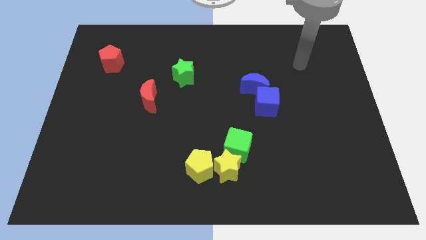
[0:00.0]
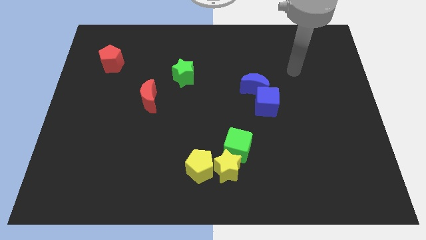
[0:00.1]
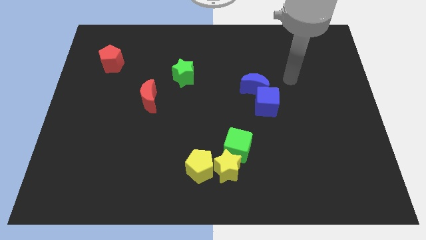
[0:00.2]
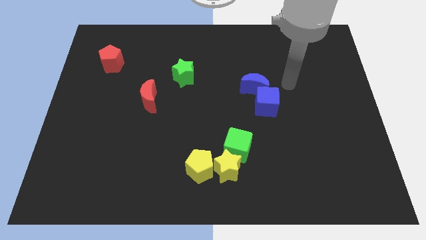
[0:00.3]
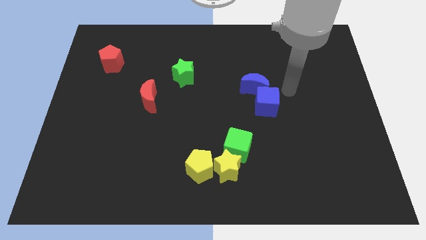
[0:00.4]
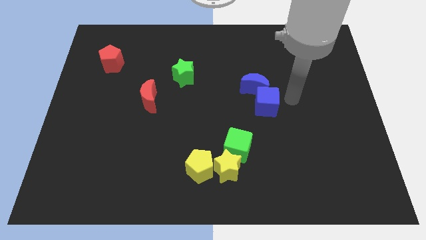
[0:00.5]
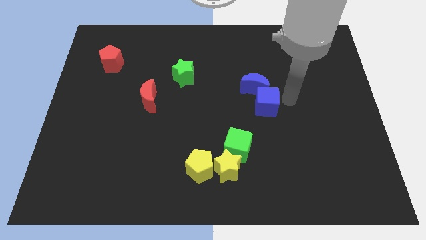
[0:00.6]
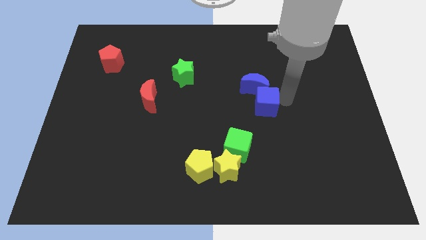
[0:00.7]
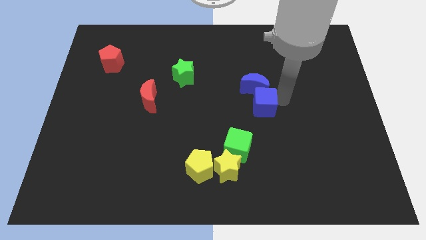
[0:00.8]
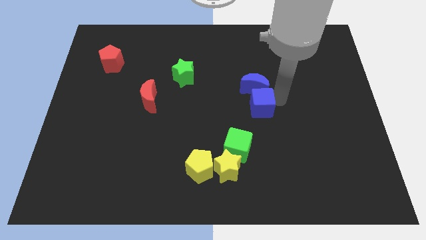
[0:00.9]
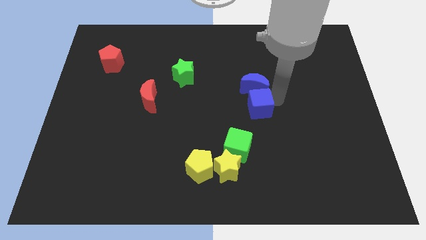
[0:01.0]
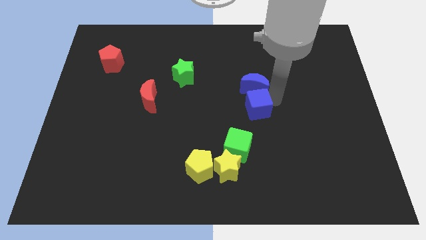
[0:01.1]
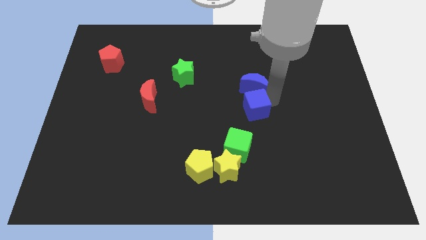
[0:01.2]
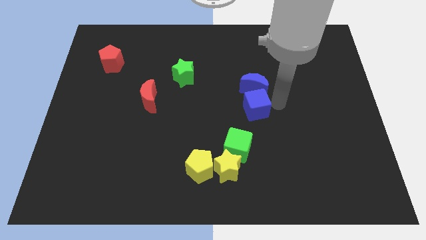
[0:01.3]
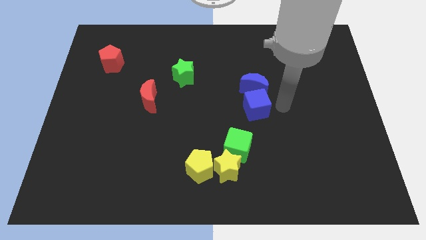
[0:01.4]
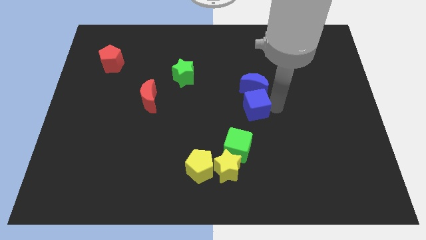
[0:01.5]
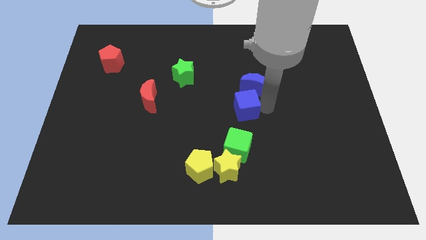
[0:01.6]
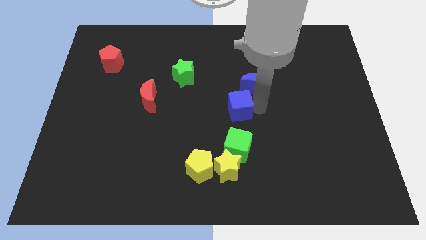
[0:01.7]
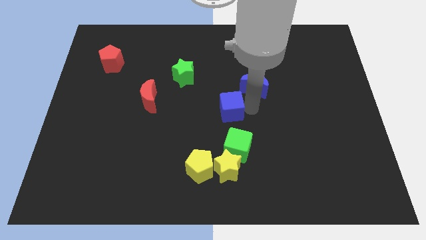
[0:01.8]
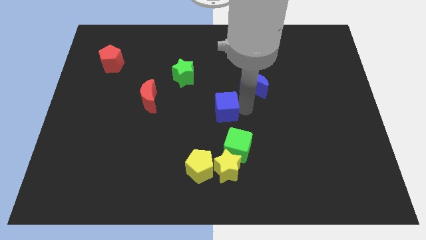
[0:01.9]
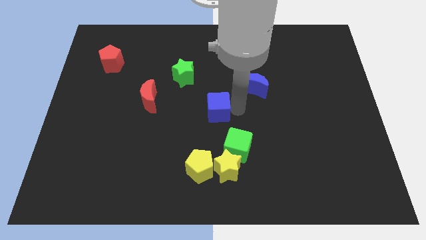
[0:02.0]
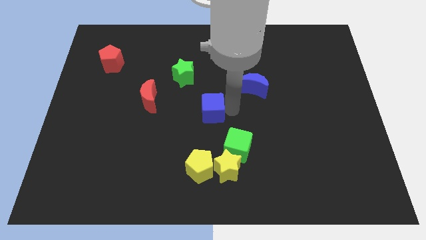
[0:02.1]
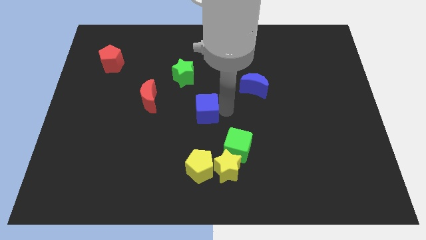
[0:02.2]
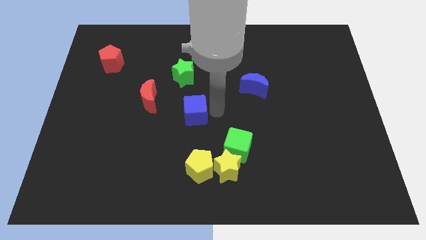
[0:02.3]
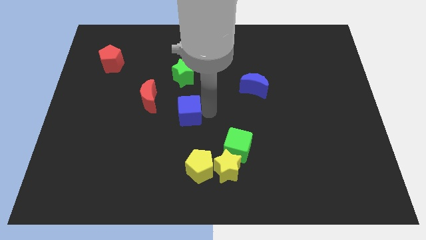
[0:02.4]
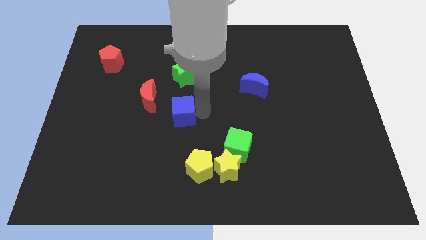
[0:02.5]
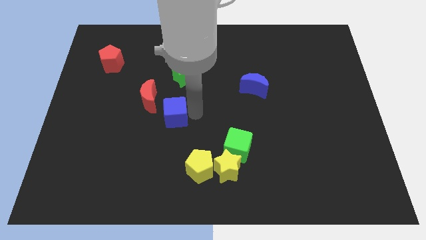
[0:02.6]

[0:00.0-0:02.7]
slide the blue cube left

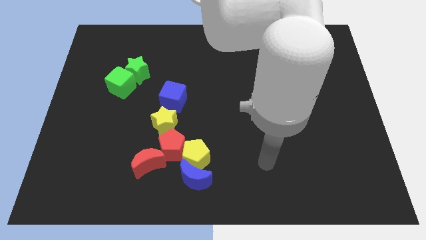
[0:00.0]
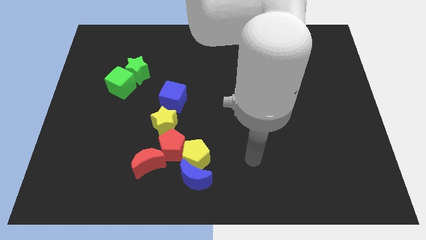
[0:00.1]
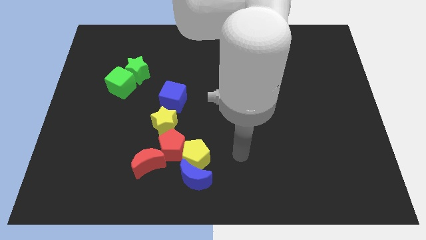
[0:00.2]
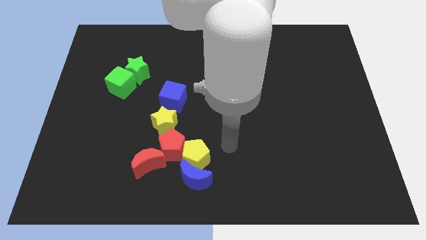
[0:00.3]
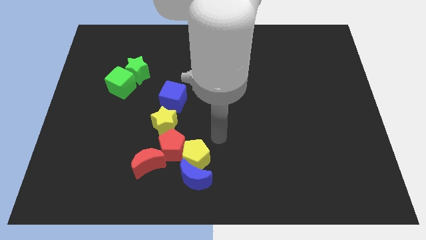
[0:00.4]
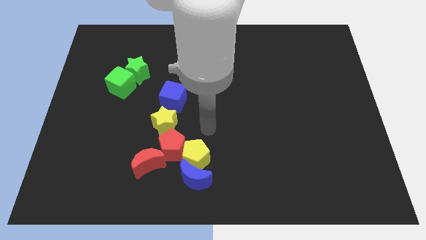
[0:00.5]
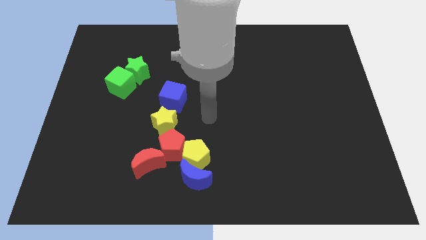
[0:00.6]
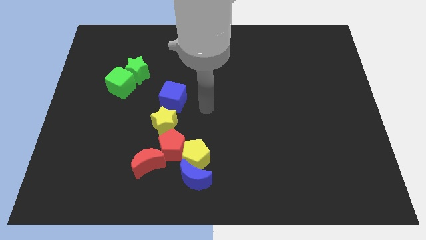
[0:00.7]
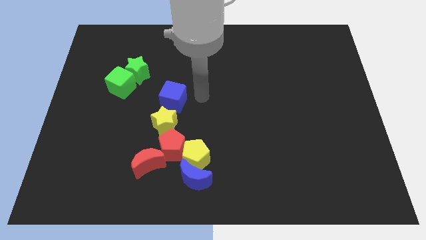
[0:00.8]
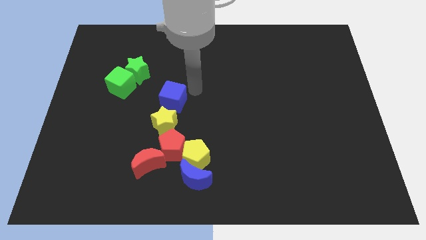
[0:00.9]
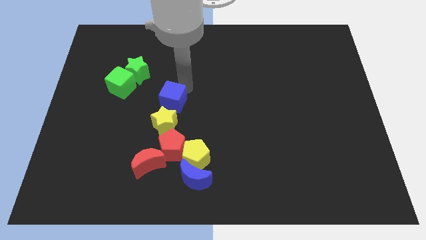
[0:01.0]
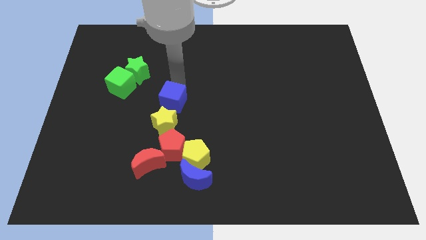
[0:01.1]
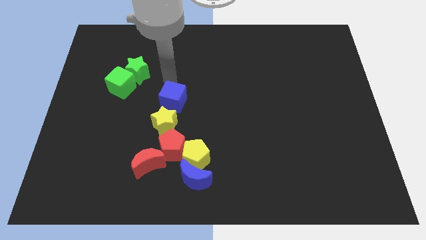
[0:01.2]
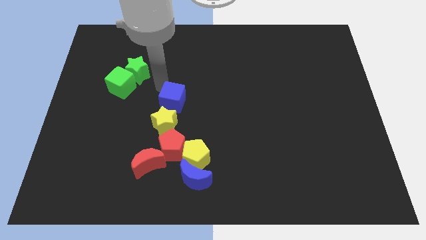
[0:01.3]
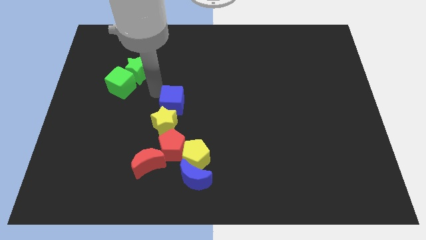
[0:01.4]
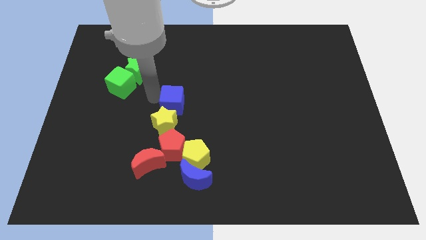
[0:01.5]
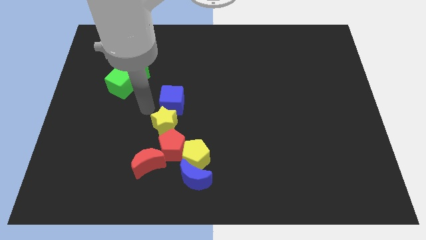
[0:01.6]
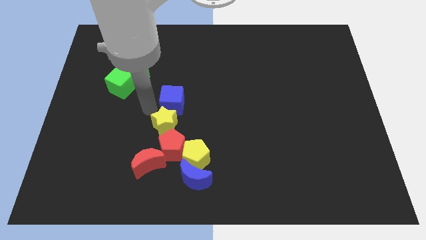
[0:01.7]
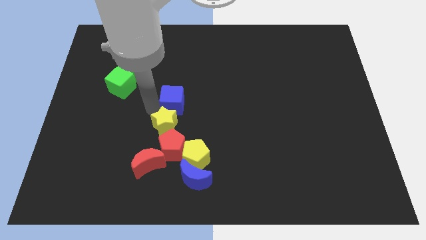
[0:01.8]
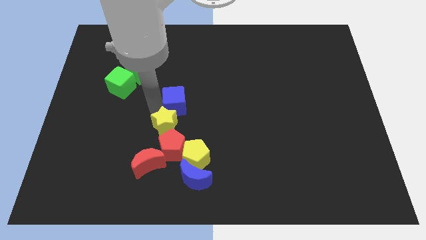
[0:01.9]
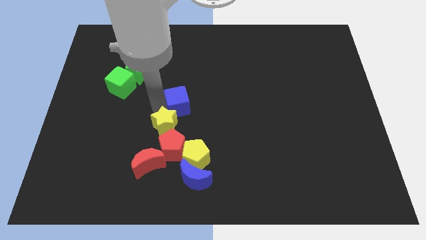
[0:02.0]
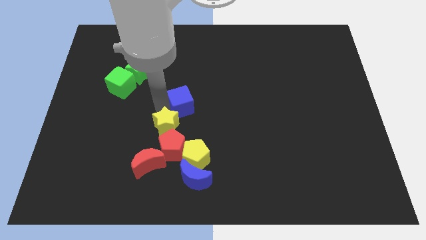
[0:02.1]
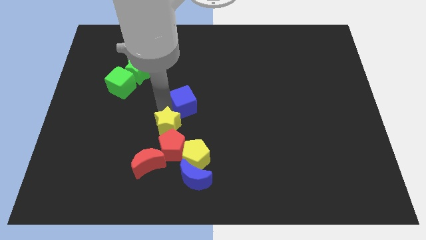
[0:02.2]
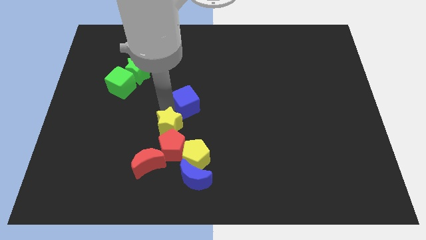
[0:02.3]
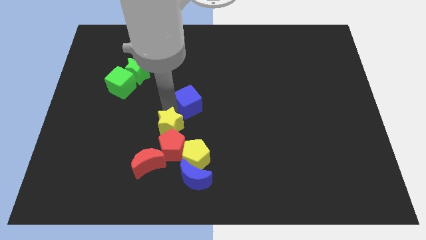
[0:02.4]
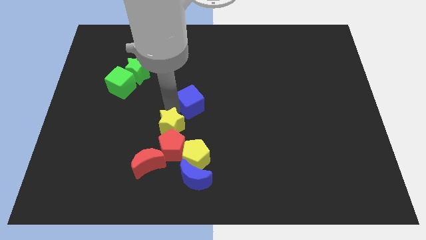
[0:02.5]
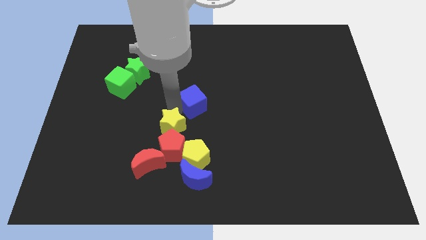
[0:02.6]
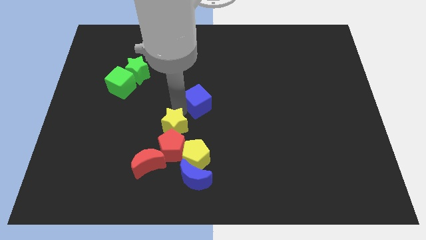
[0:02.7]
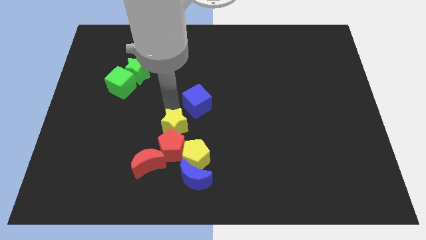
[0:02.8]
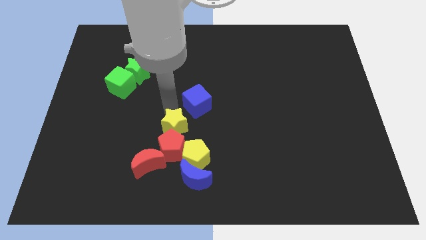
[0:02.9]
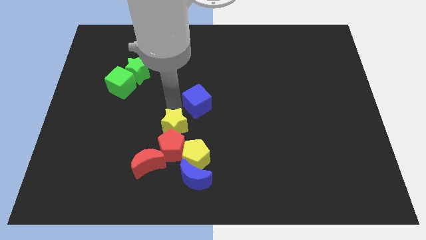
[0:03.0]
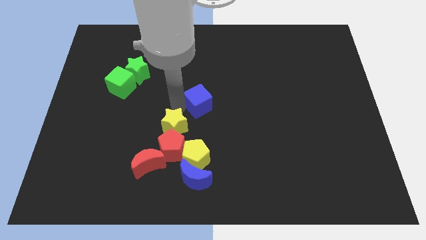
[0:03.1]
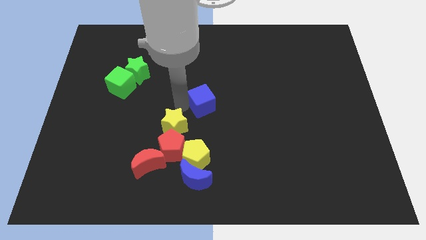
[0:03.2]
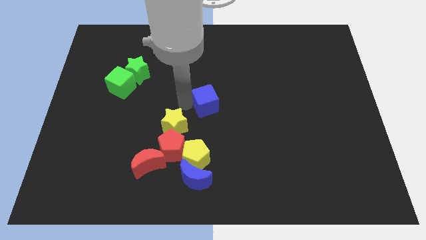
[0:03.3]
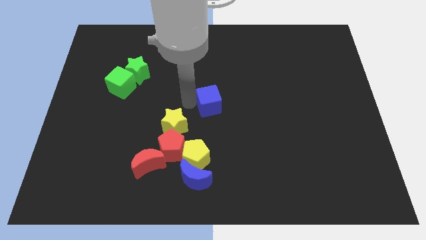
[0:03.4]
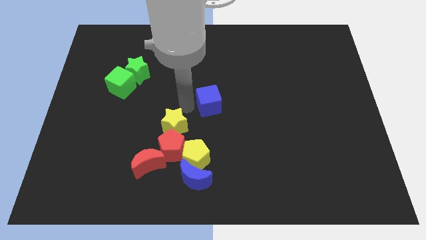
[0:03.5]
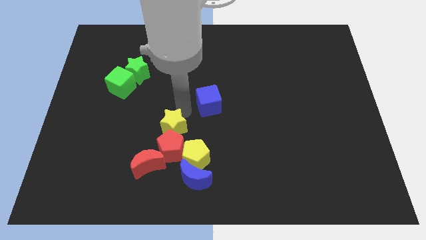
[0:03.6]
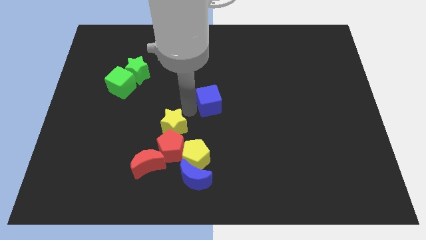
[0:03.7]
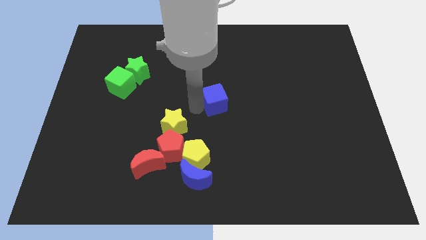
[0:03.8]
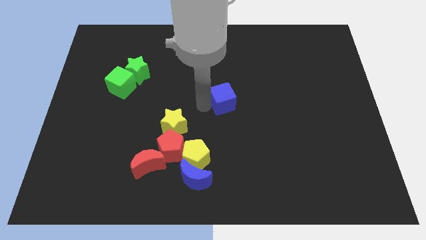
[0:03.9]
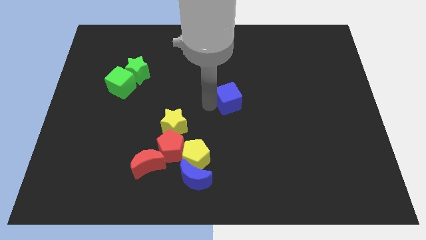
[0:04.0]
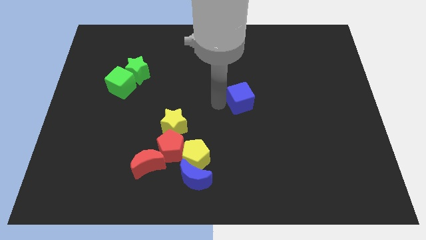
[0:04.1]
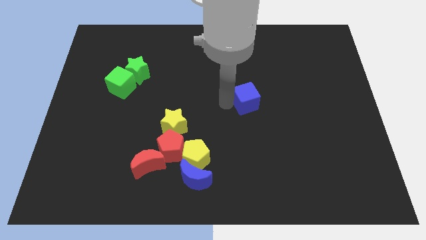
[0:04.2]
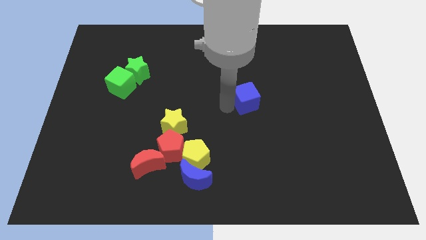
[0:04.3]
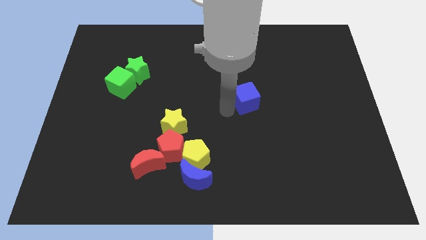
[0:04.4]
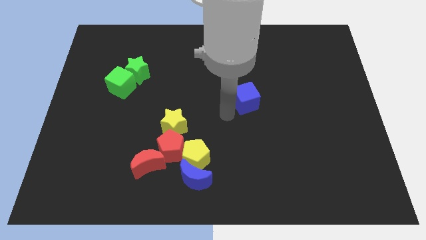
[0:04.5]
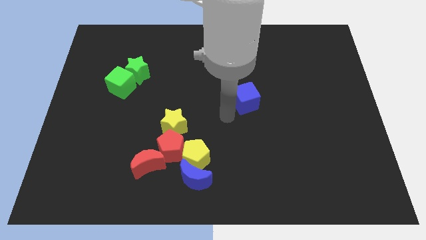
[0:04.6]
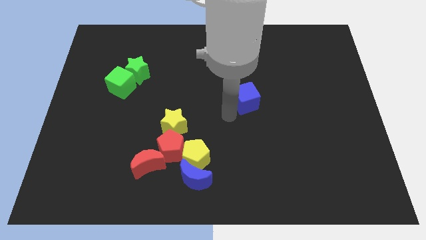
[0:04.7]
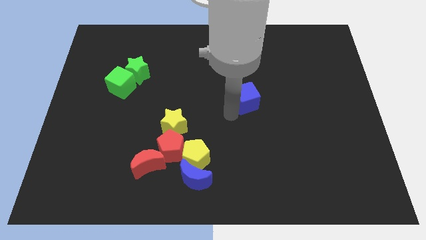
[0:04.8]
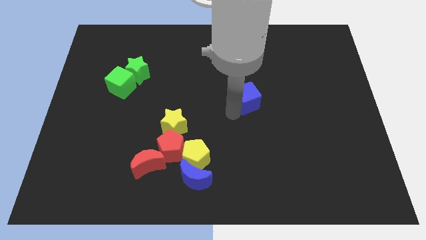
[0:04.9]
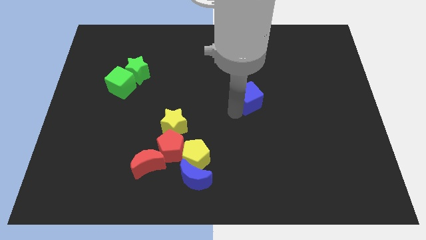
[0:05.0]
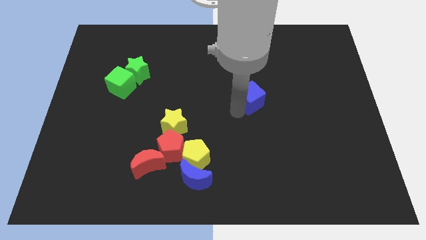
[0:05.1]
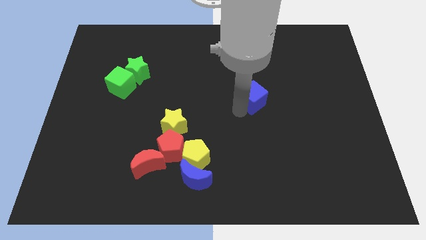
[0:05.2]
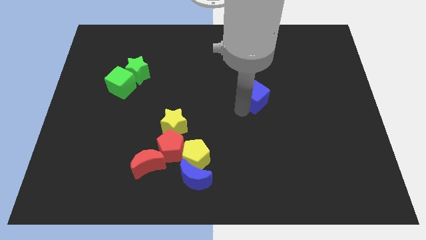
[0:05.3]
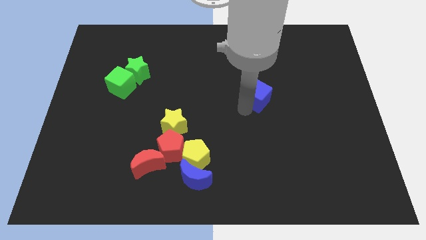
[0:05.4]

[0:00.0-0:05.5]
slide the blue cube right

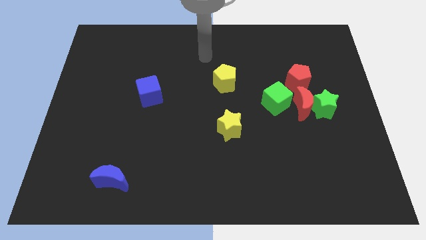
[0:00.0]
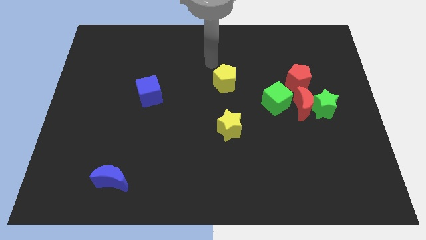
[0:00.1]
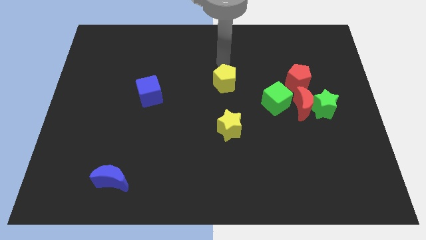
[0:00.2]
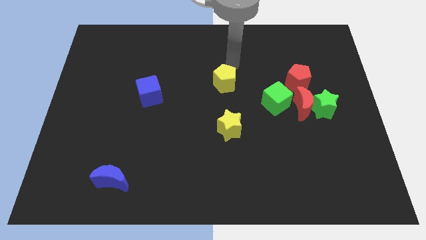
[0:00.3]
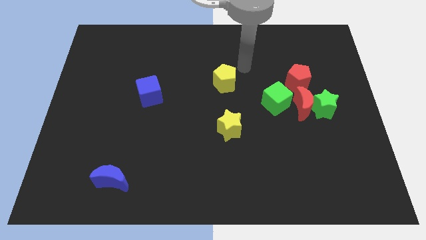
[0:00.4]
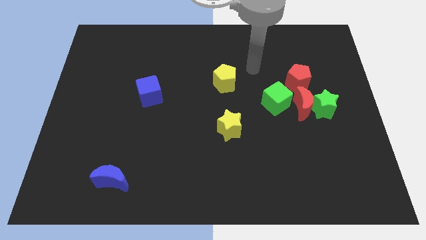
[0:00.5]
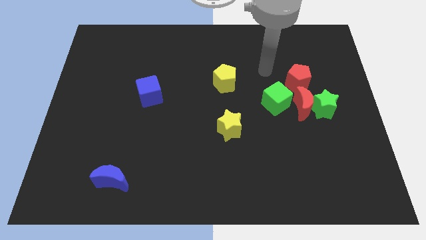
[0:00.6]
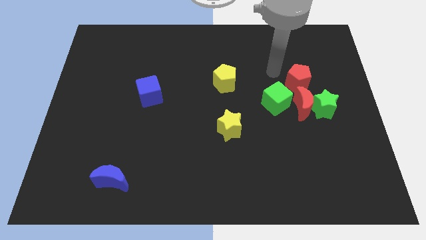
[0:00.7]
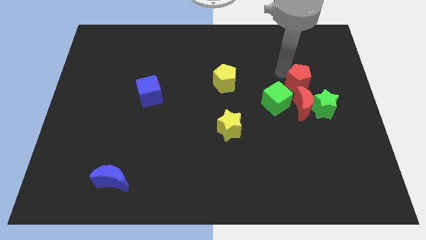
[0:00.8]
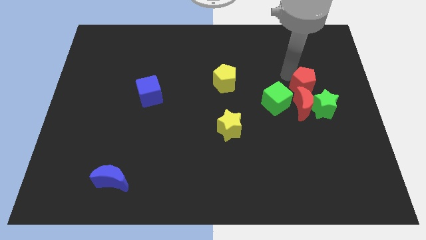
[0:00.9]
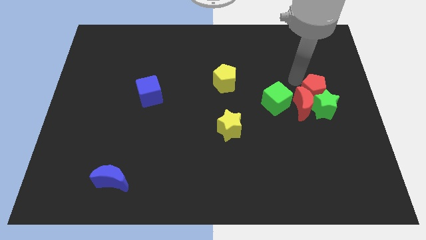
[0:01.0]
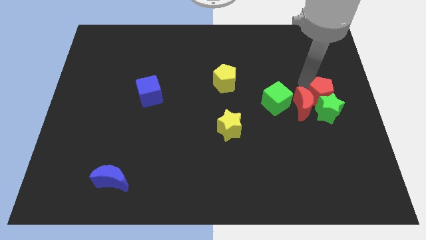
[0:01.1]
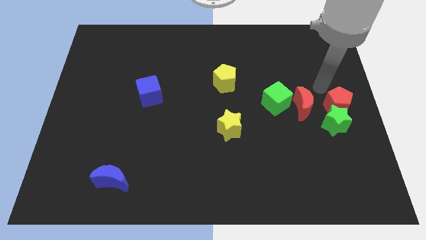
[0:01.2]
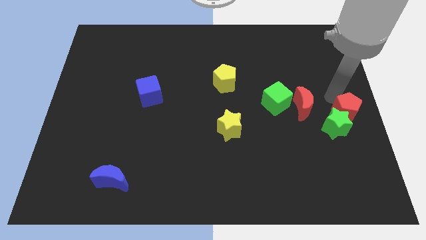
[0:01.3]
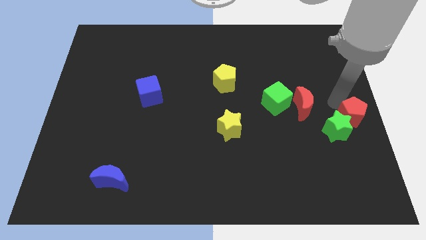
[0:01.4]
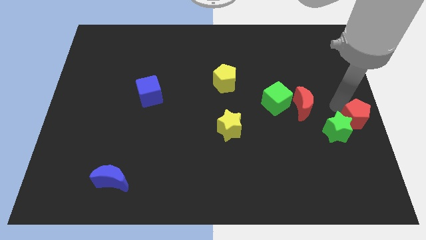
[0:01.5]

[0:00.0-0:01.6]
move the green star down a little bit
